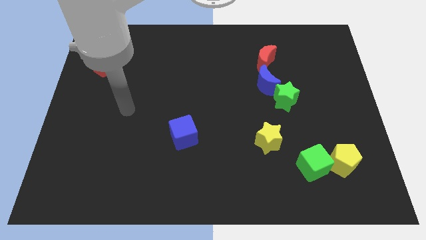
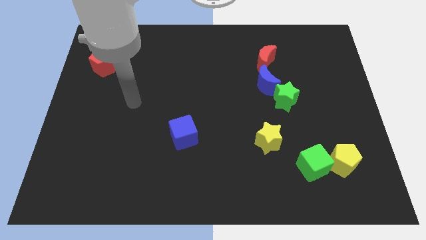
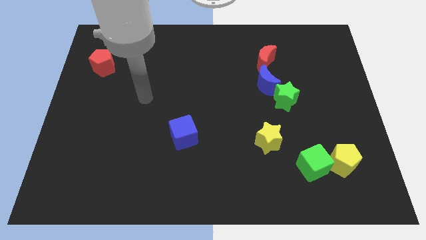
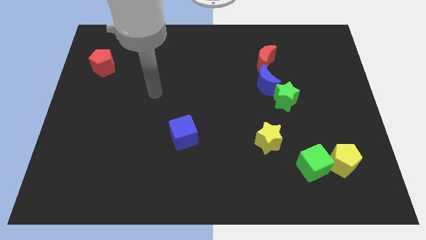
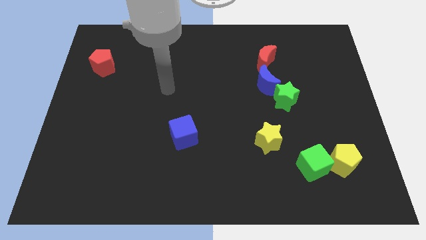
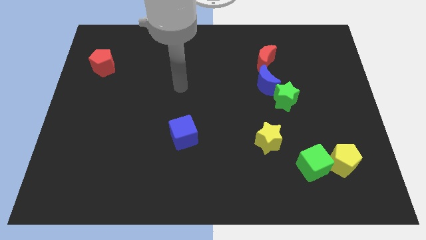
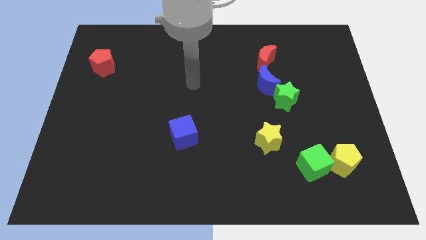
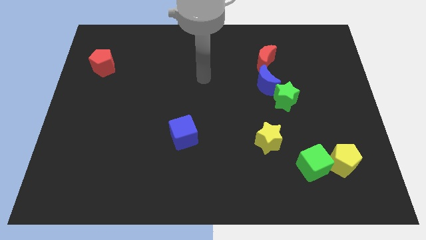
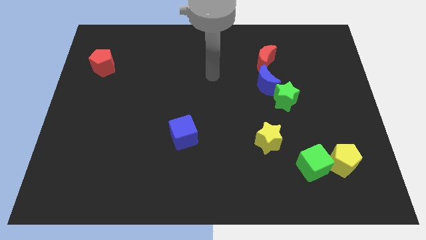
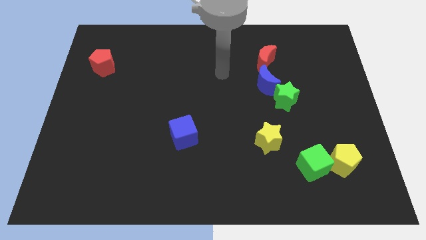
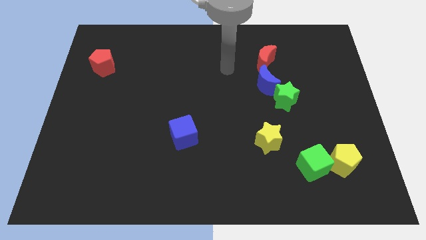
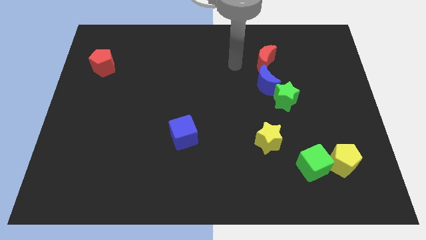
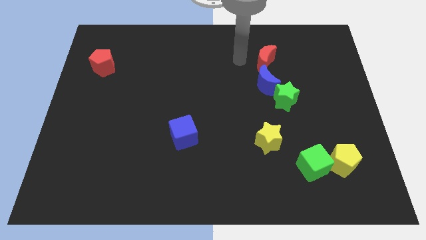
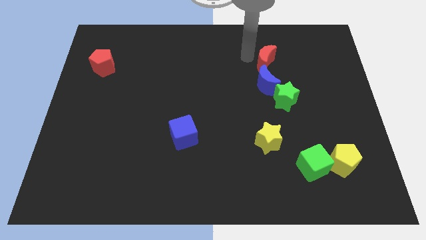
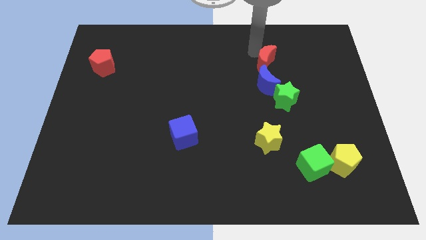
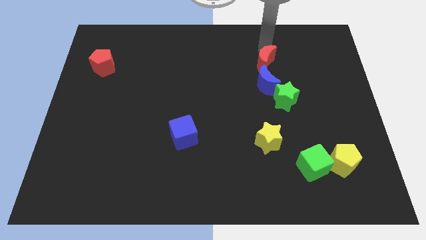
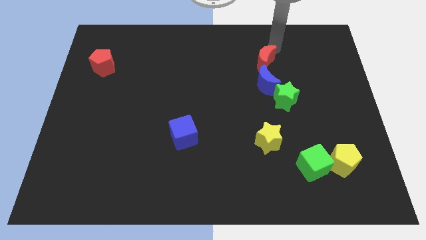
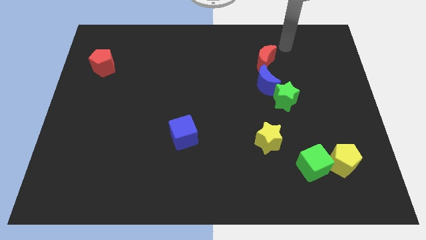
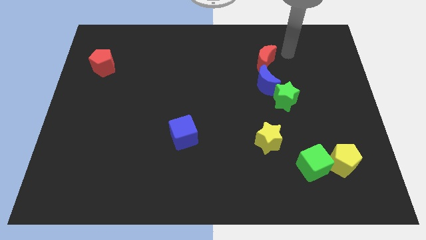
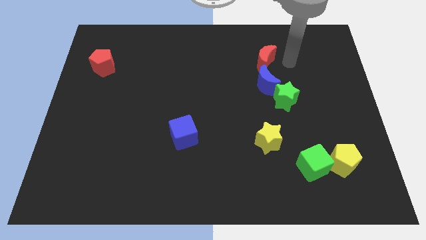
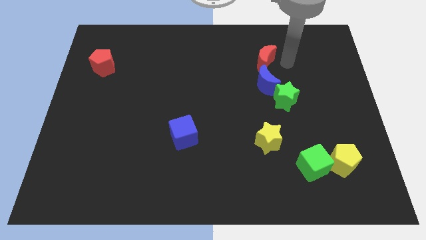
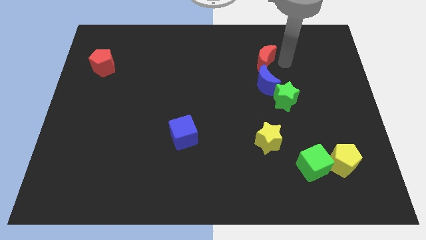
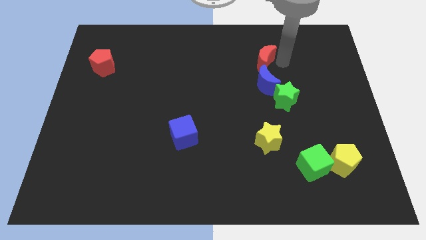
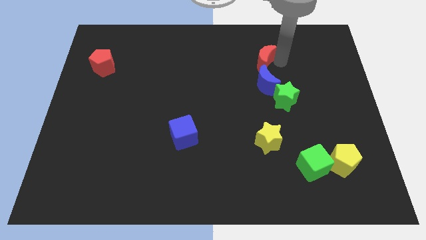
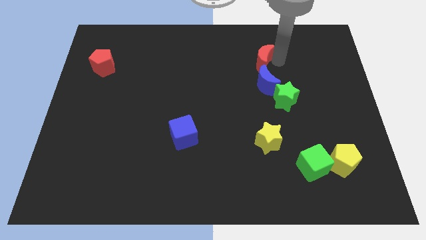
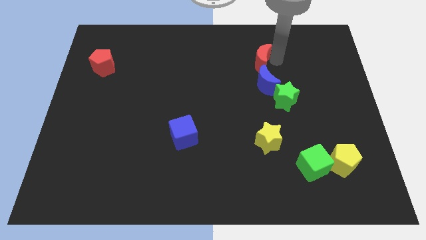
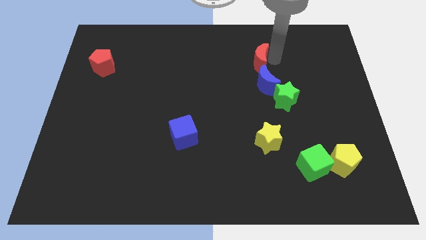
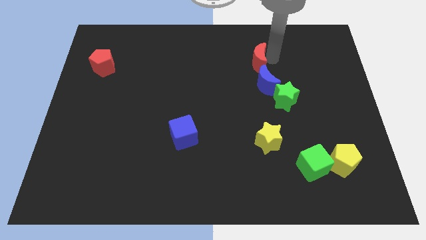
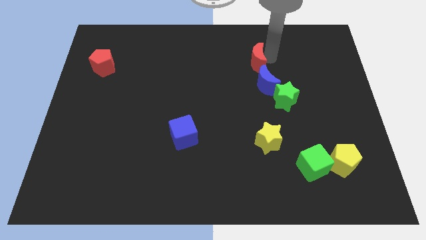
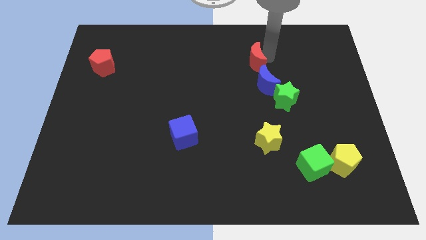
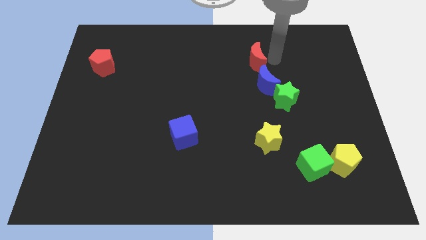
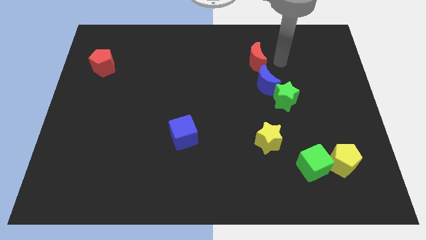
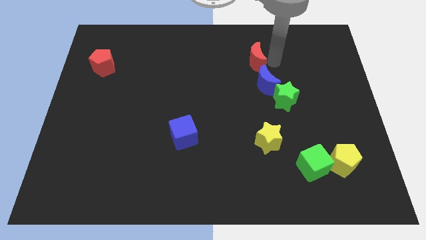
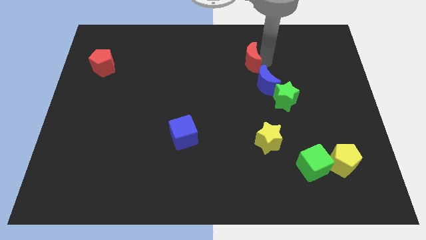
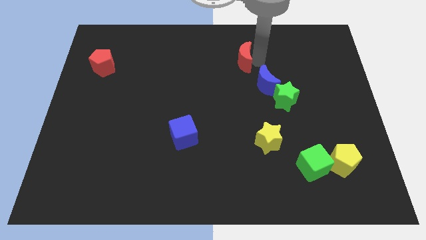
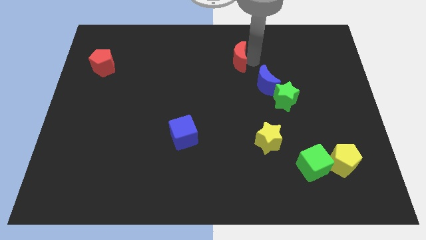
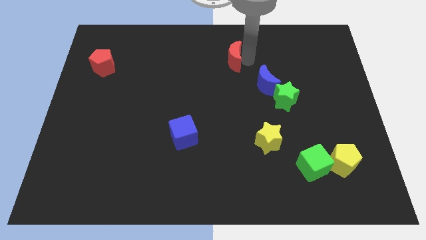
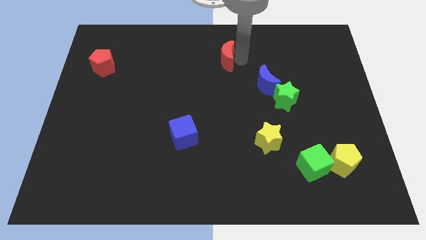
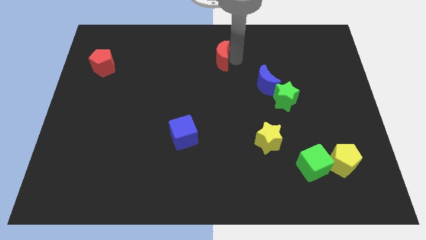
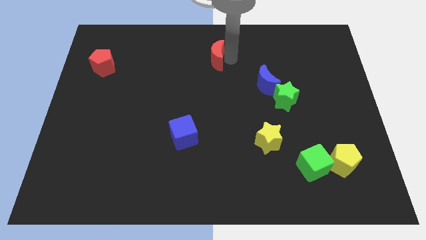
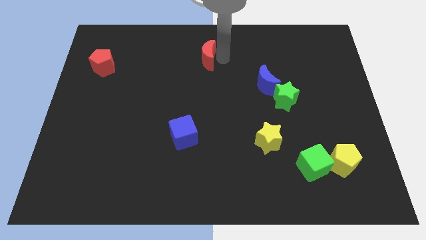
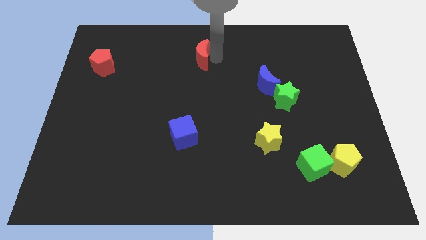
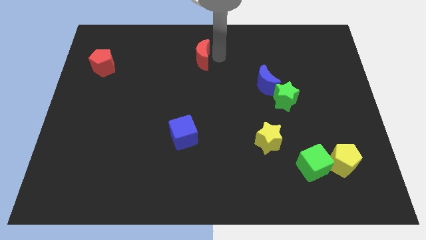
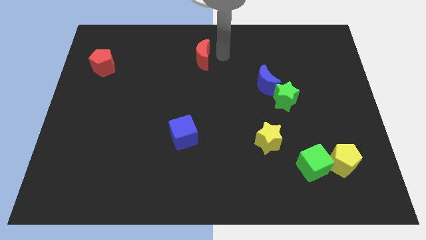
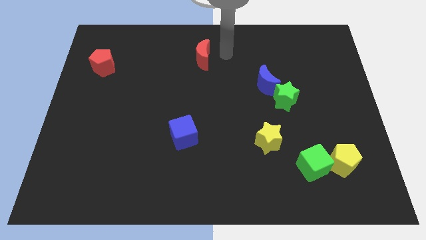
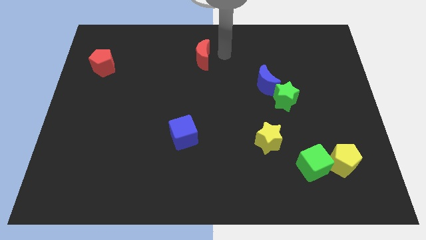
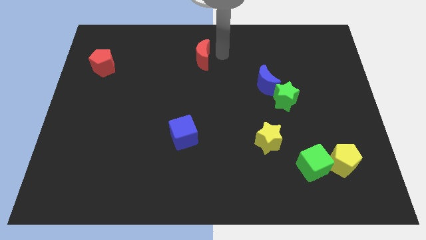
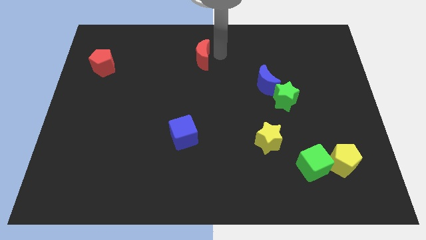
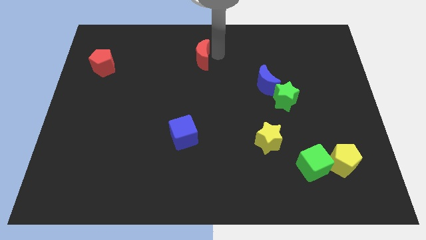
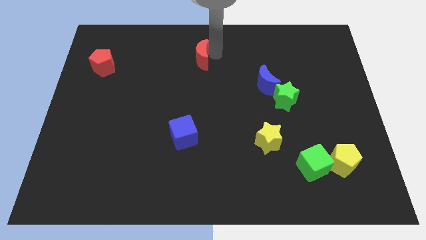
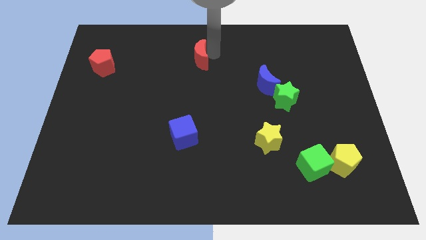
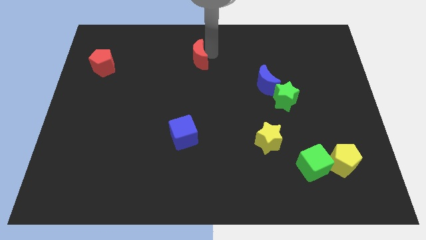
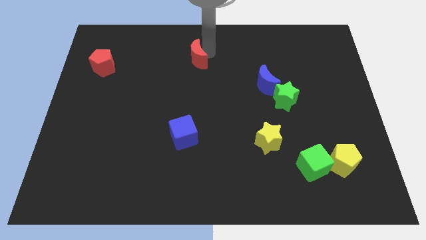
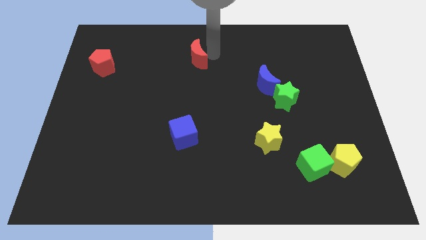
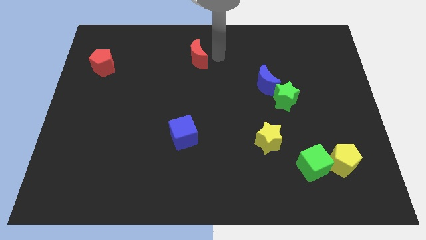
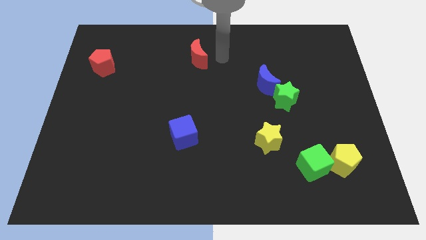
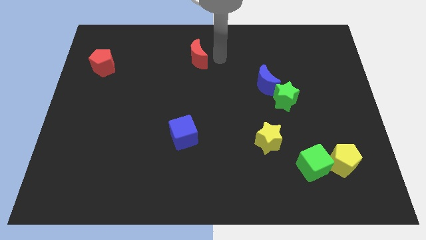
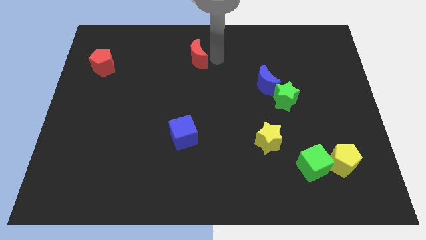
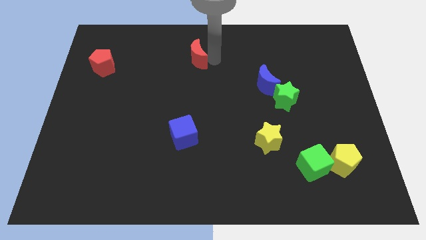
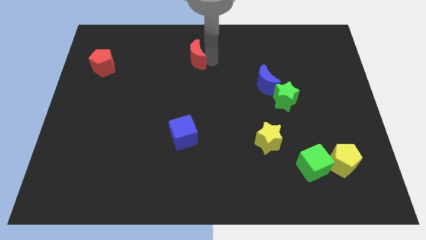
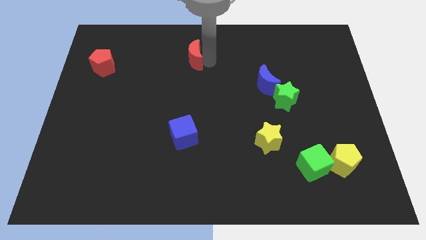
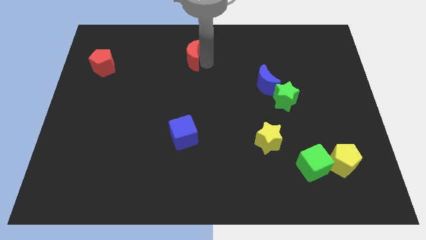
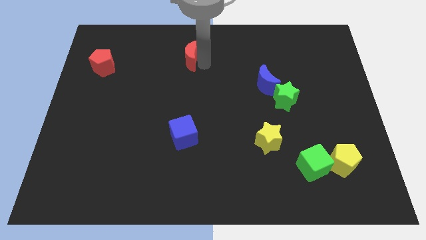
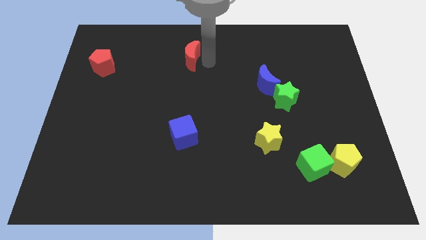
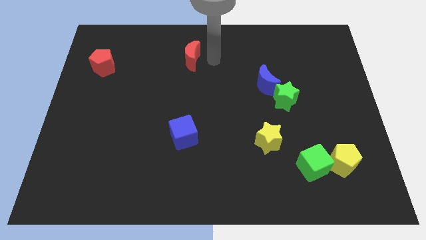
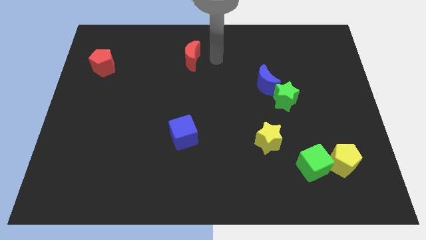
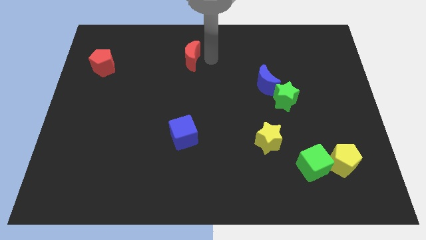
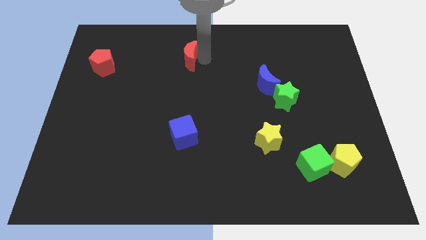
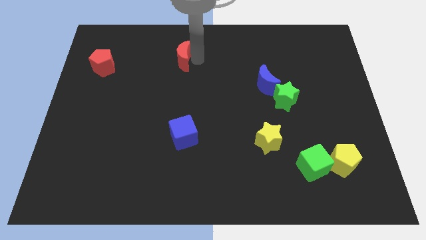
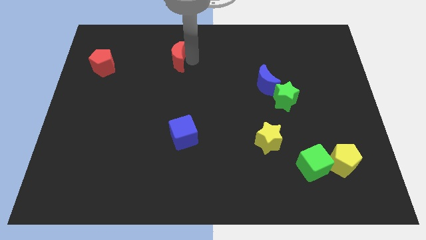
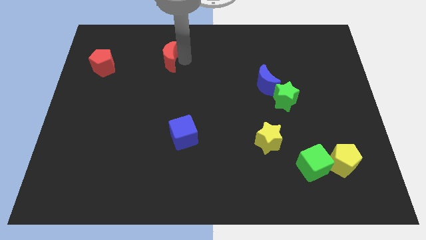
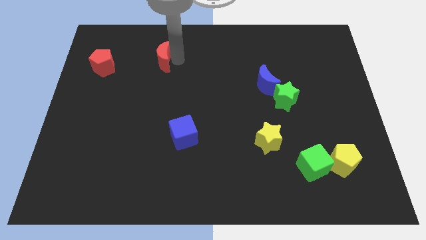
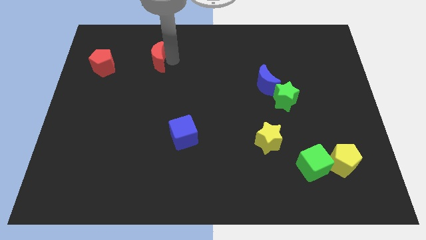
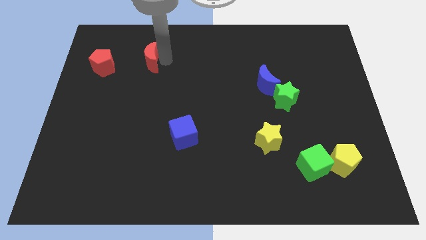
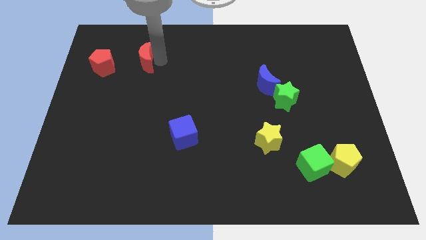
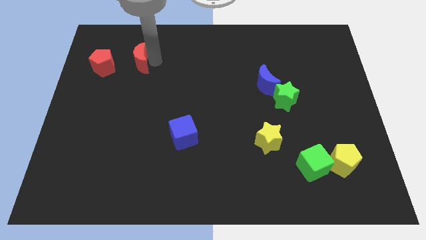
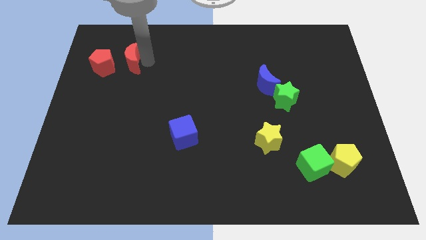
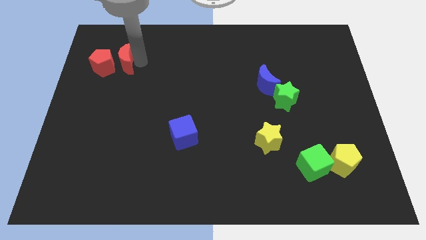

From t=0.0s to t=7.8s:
put the red moon to the red pentagon
